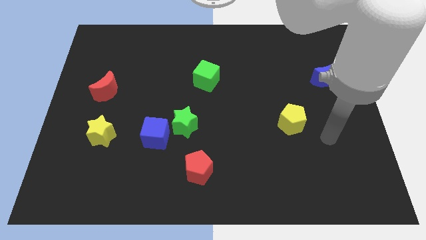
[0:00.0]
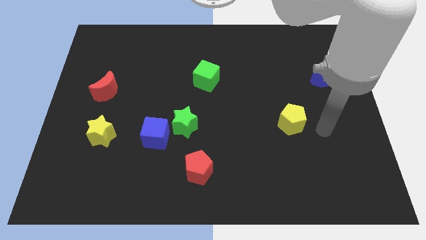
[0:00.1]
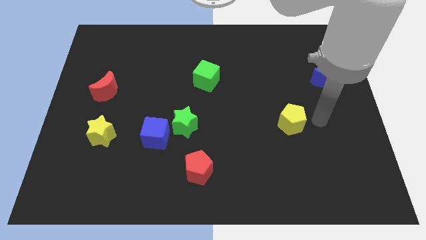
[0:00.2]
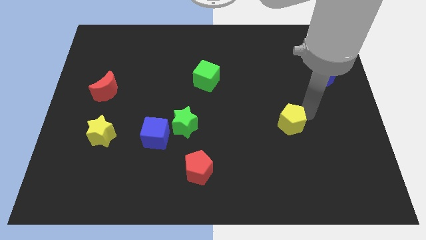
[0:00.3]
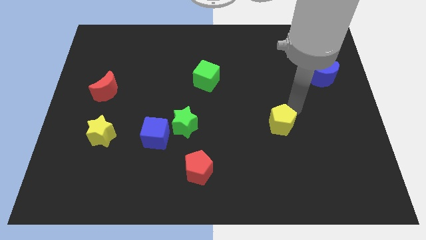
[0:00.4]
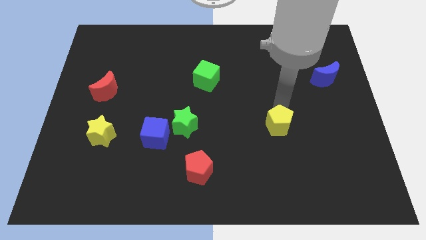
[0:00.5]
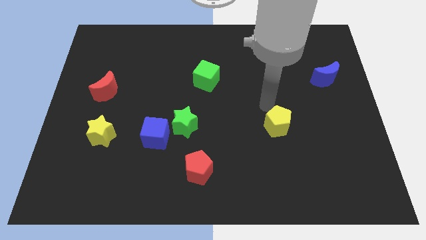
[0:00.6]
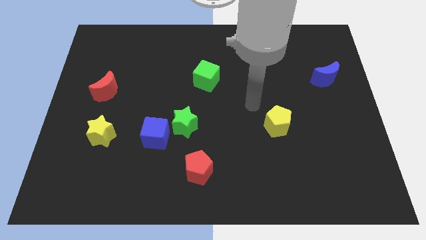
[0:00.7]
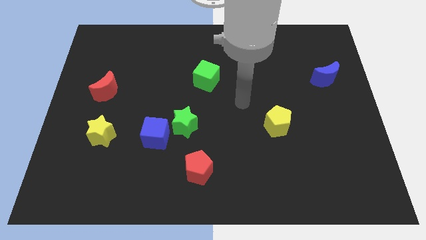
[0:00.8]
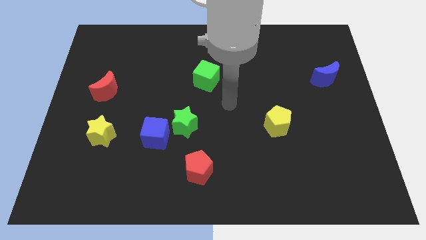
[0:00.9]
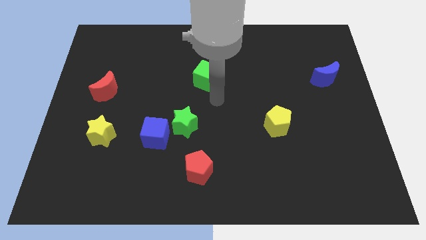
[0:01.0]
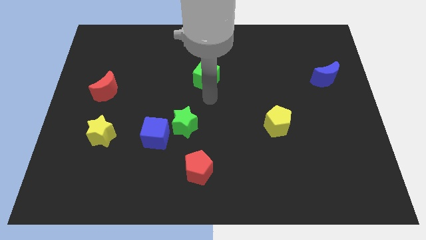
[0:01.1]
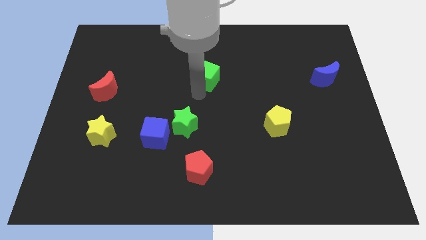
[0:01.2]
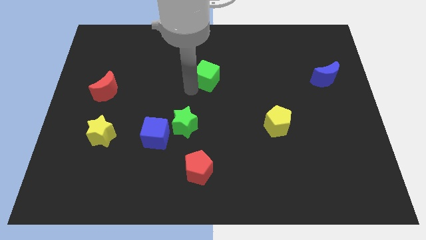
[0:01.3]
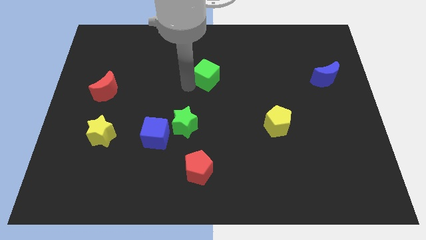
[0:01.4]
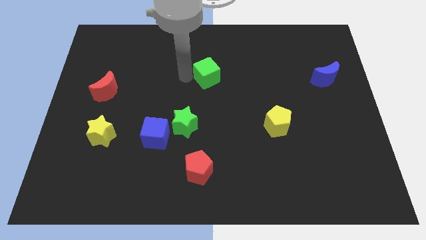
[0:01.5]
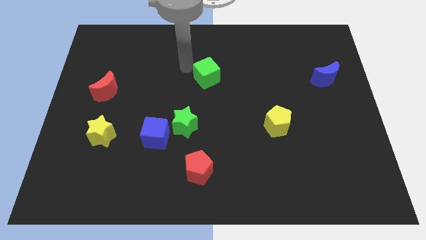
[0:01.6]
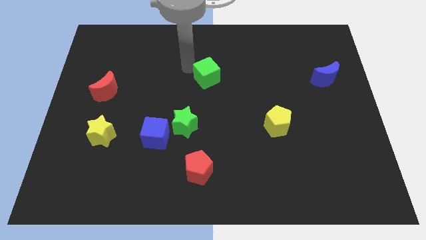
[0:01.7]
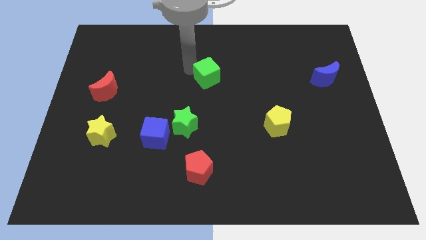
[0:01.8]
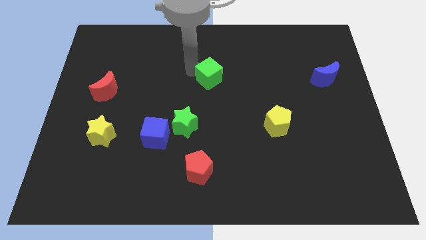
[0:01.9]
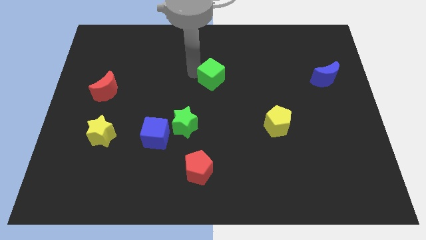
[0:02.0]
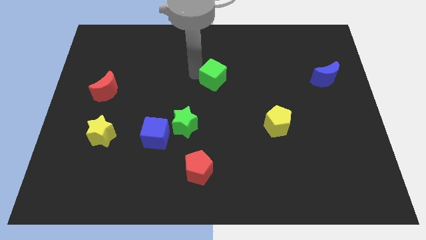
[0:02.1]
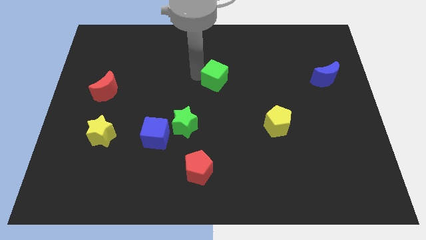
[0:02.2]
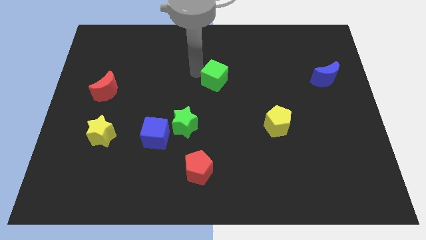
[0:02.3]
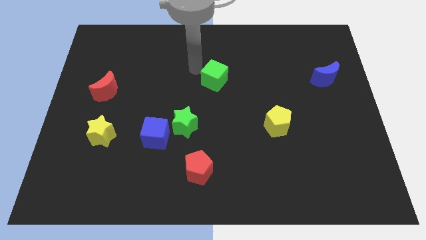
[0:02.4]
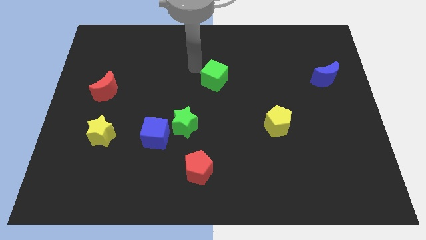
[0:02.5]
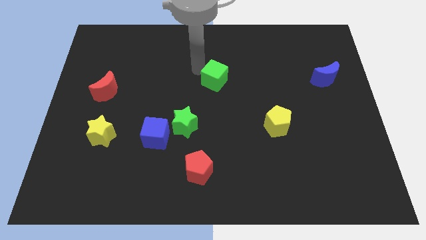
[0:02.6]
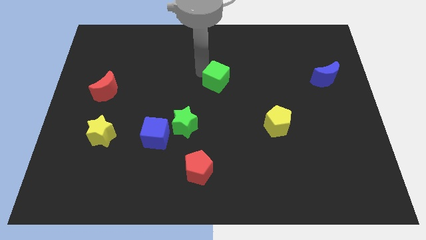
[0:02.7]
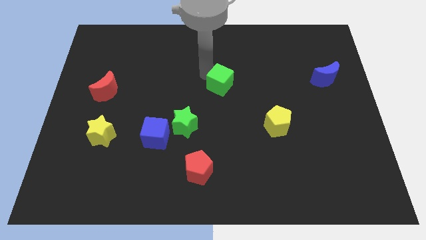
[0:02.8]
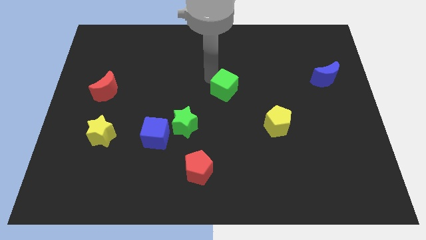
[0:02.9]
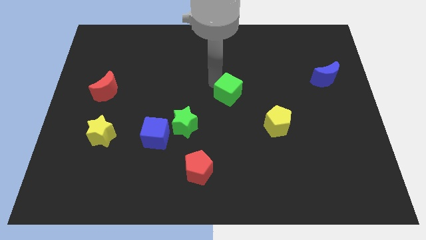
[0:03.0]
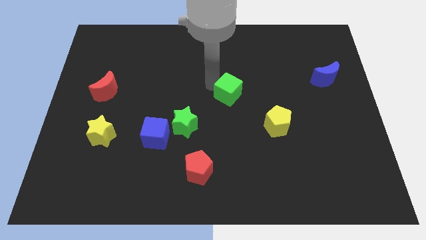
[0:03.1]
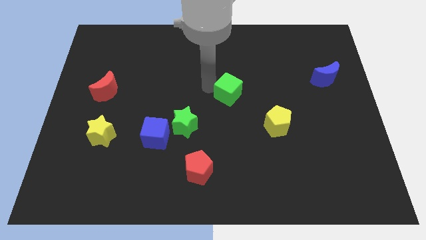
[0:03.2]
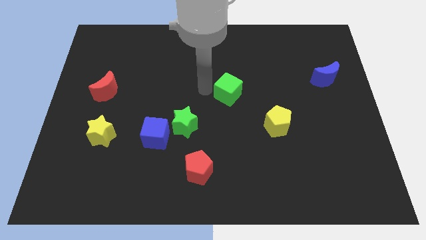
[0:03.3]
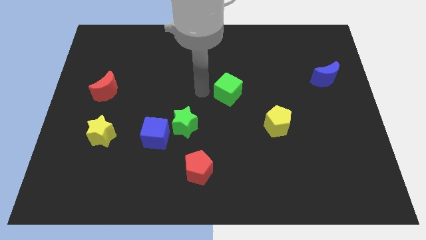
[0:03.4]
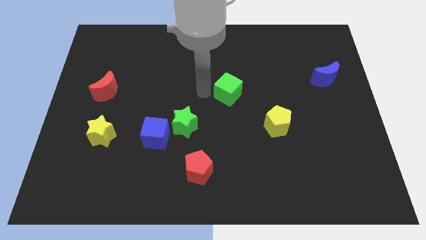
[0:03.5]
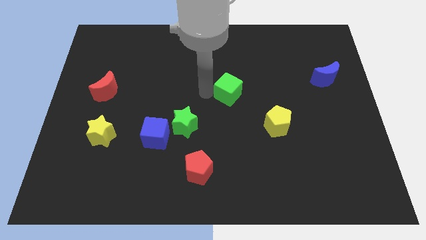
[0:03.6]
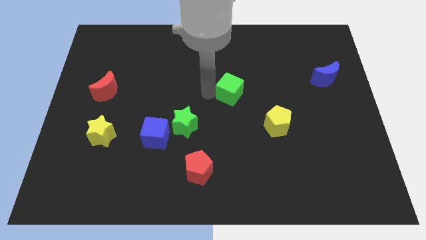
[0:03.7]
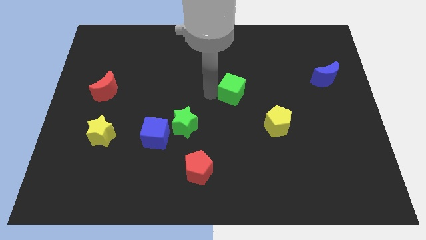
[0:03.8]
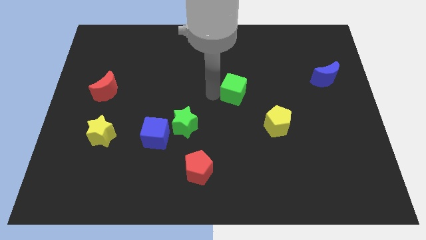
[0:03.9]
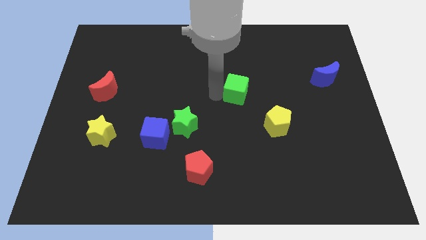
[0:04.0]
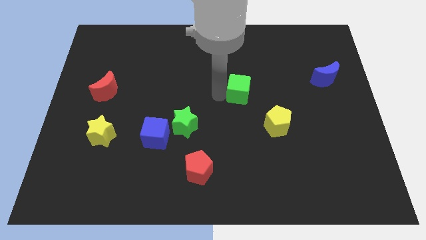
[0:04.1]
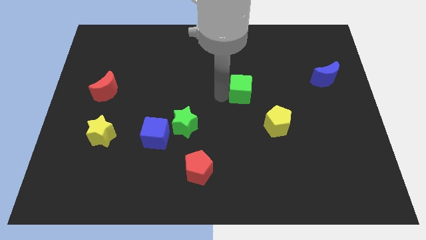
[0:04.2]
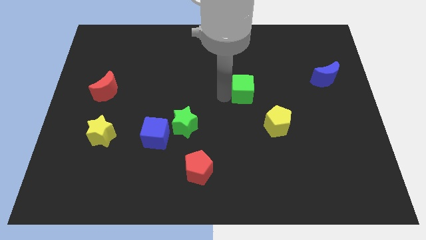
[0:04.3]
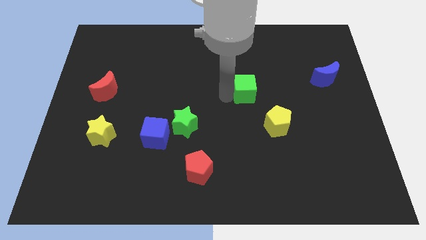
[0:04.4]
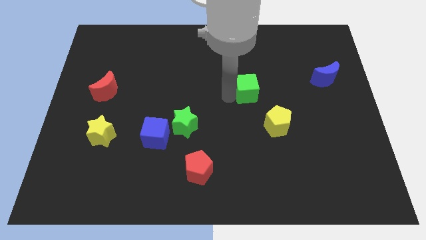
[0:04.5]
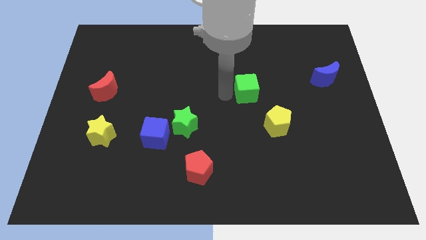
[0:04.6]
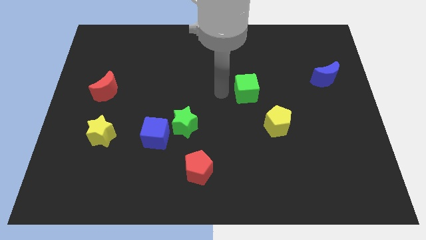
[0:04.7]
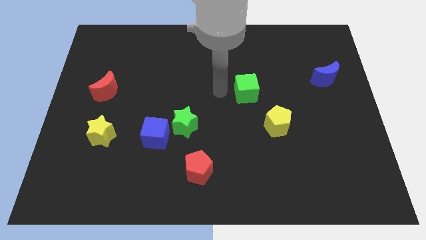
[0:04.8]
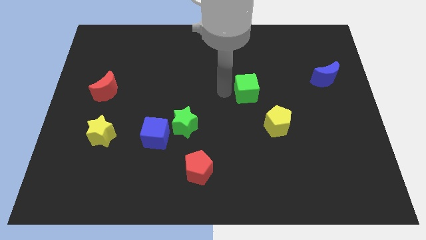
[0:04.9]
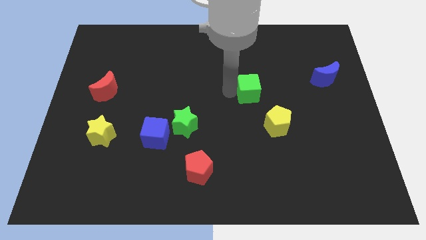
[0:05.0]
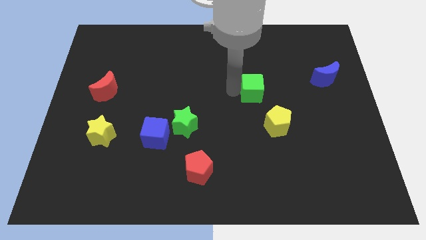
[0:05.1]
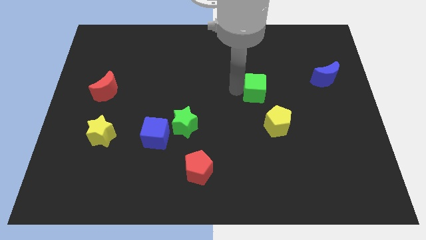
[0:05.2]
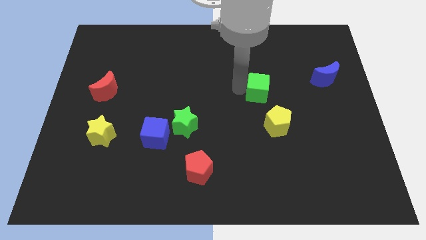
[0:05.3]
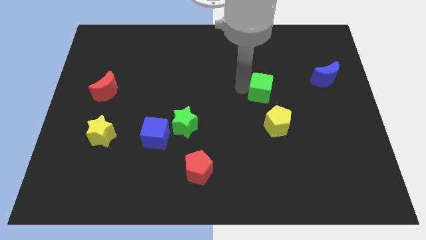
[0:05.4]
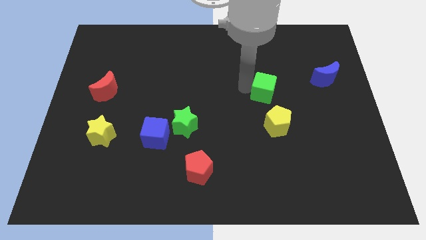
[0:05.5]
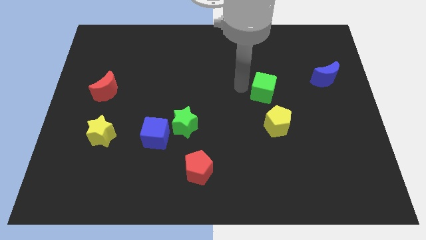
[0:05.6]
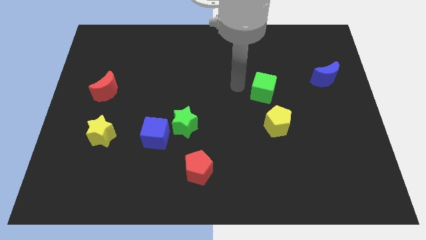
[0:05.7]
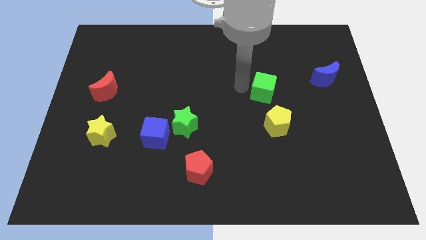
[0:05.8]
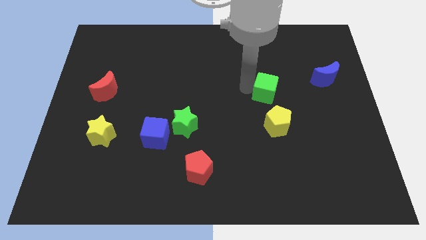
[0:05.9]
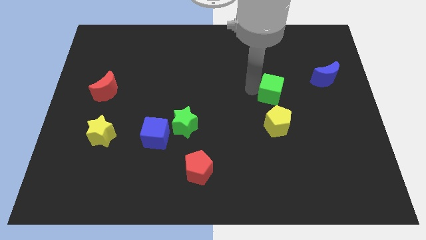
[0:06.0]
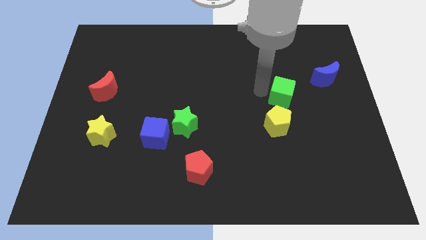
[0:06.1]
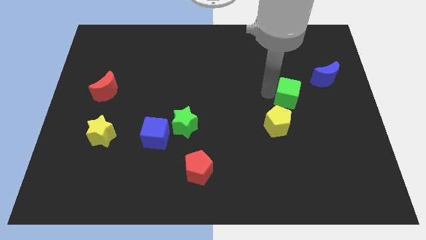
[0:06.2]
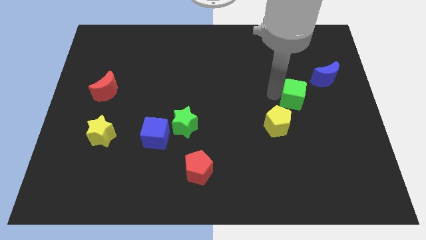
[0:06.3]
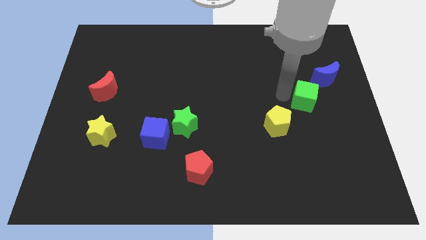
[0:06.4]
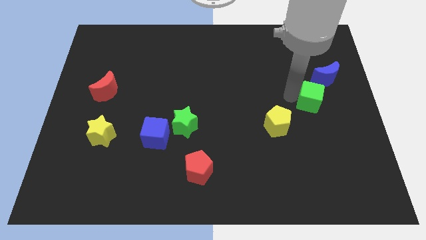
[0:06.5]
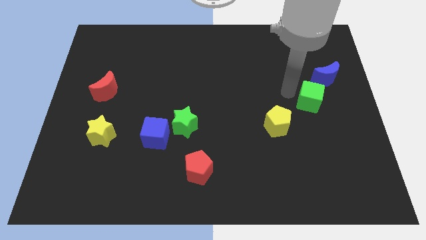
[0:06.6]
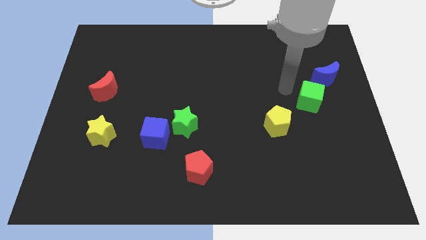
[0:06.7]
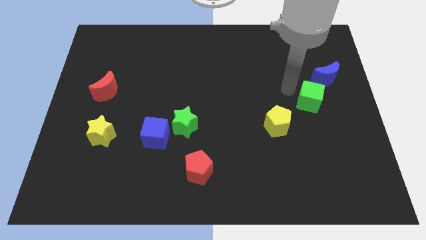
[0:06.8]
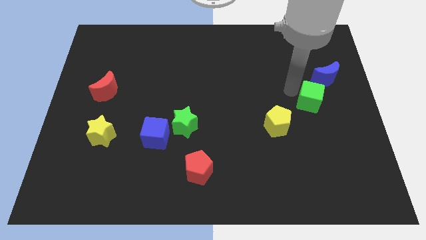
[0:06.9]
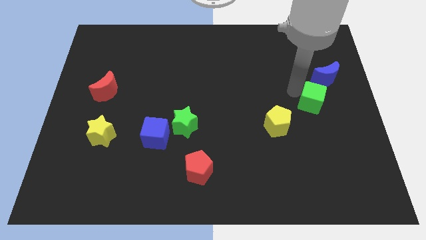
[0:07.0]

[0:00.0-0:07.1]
put the green cube to the bottom side of the blue moon
